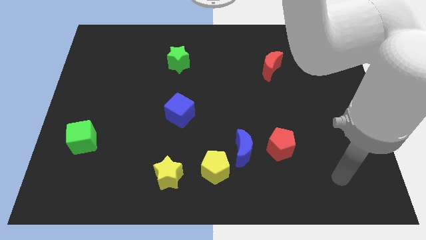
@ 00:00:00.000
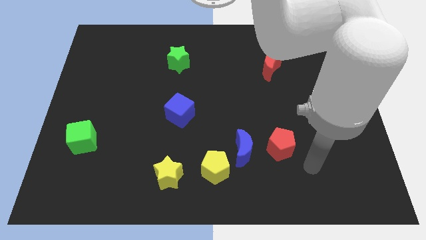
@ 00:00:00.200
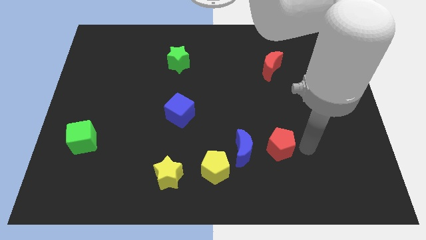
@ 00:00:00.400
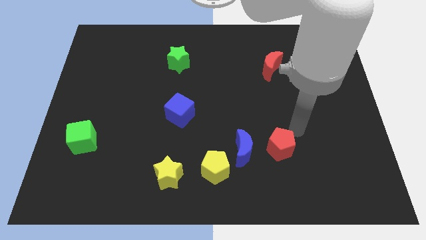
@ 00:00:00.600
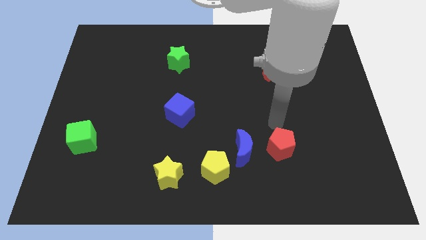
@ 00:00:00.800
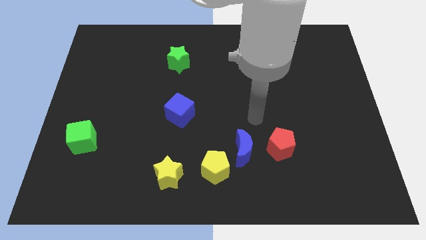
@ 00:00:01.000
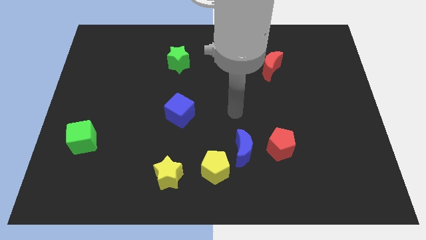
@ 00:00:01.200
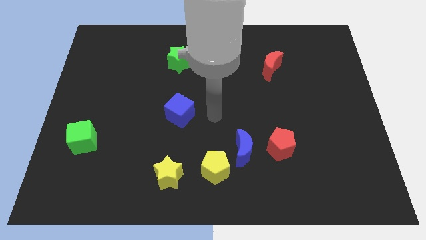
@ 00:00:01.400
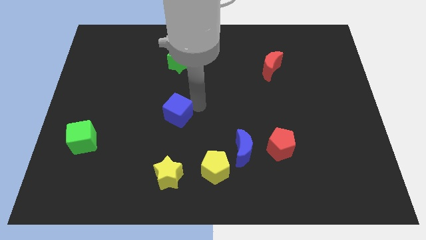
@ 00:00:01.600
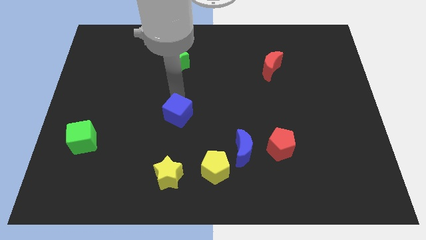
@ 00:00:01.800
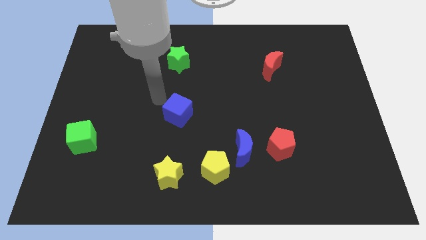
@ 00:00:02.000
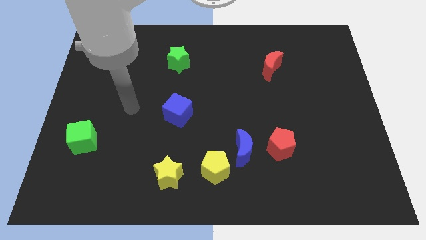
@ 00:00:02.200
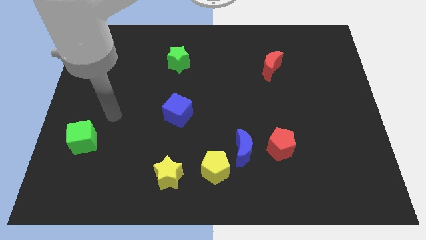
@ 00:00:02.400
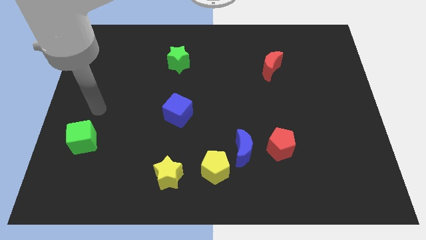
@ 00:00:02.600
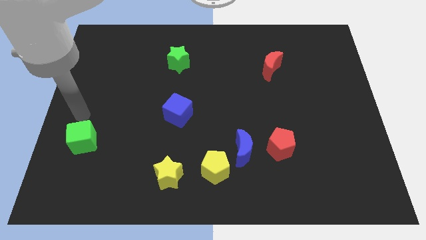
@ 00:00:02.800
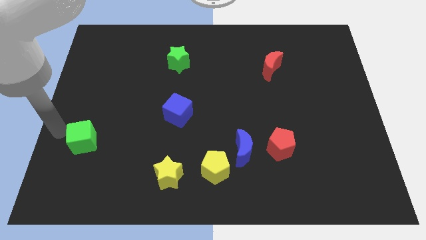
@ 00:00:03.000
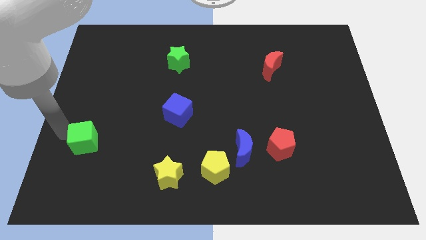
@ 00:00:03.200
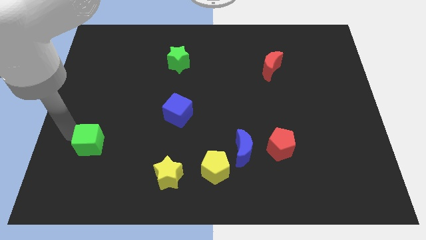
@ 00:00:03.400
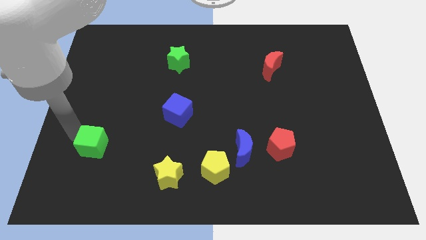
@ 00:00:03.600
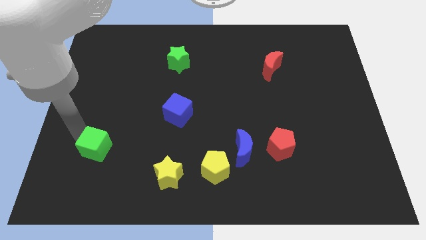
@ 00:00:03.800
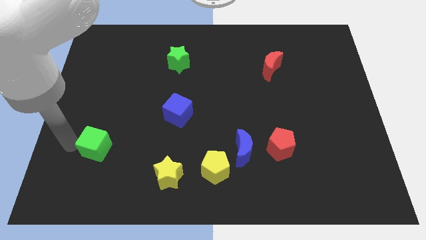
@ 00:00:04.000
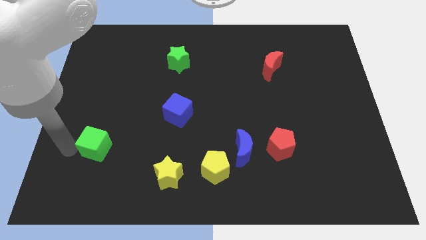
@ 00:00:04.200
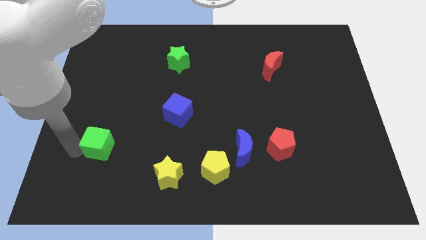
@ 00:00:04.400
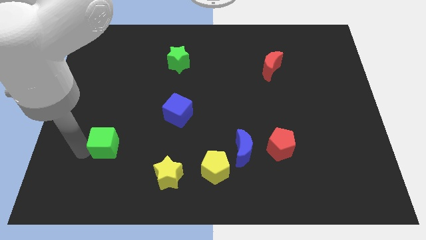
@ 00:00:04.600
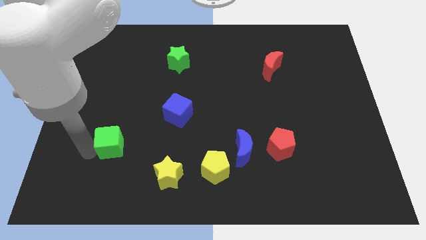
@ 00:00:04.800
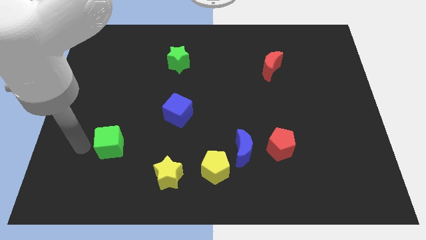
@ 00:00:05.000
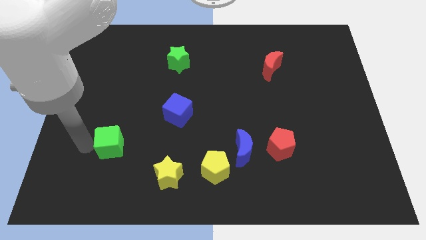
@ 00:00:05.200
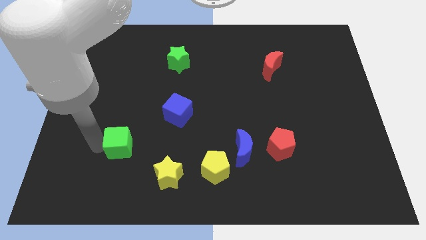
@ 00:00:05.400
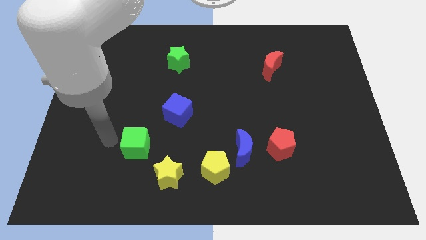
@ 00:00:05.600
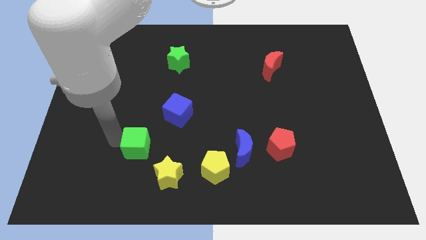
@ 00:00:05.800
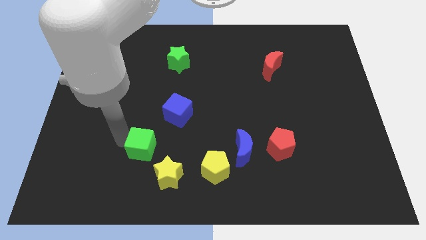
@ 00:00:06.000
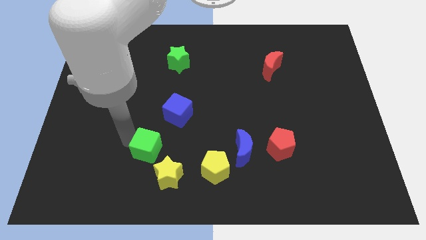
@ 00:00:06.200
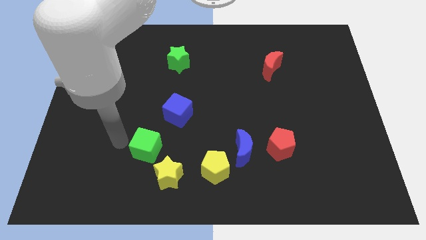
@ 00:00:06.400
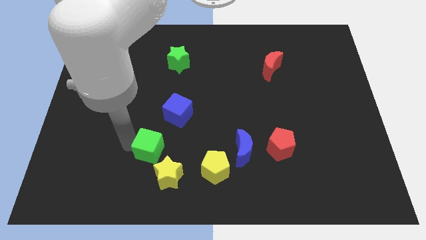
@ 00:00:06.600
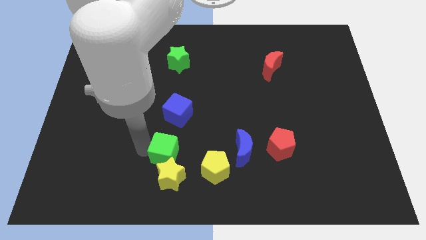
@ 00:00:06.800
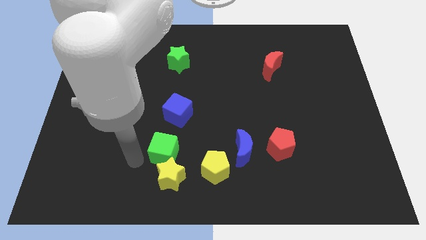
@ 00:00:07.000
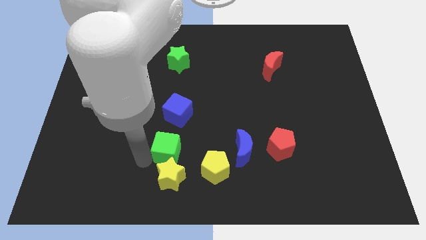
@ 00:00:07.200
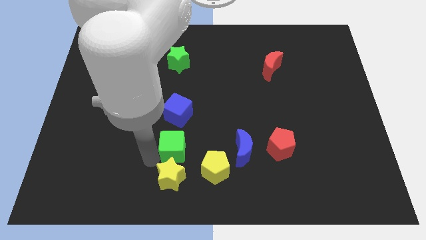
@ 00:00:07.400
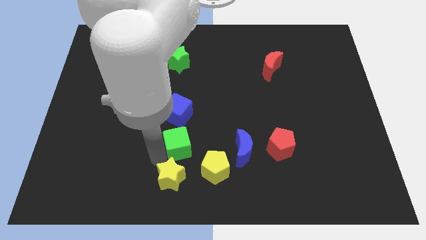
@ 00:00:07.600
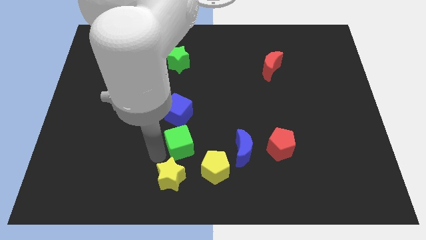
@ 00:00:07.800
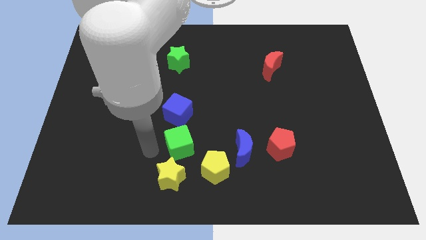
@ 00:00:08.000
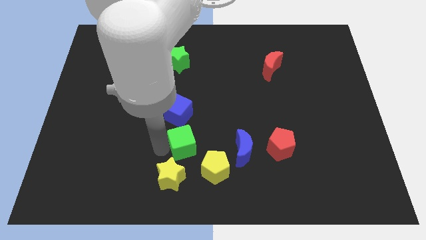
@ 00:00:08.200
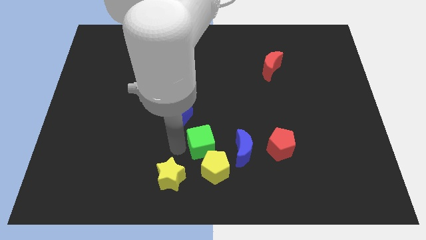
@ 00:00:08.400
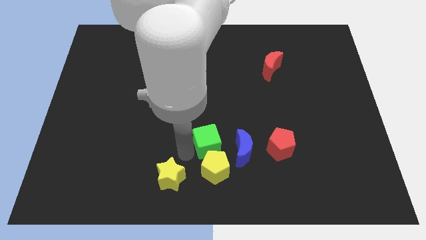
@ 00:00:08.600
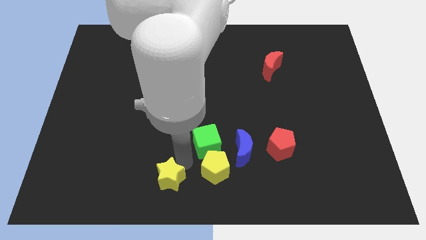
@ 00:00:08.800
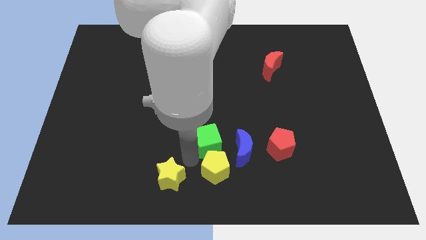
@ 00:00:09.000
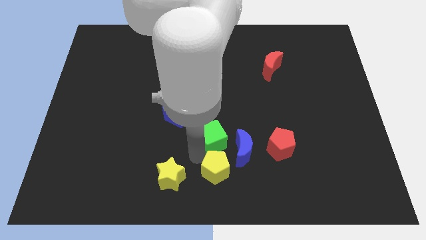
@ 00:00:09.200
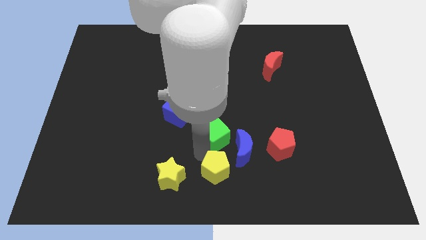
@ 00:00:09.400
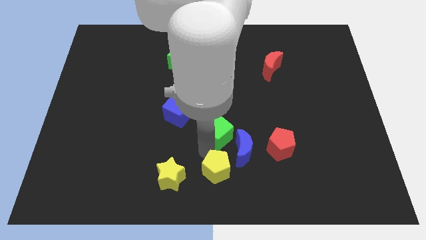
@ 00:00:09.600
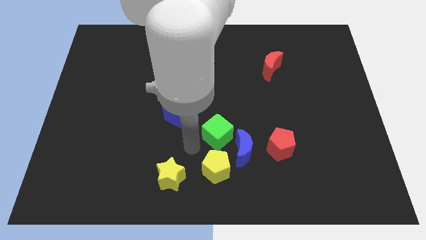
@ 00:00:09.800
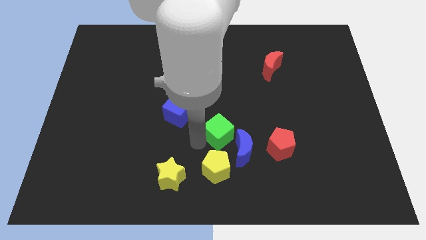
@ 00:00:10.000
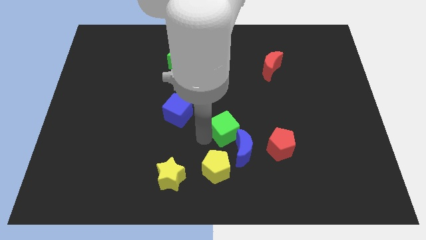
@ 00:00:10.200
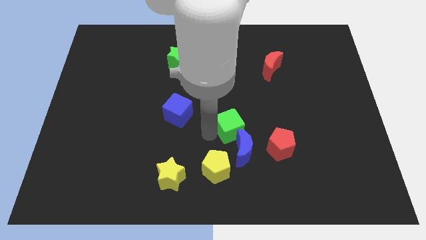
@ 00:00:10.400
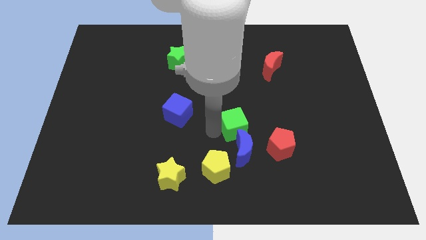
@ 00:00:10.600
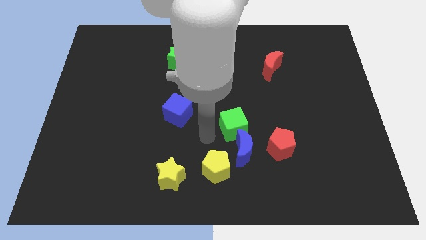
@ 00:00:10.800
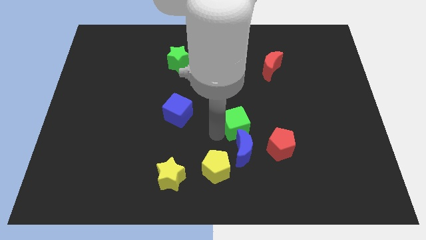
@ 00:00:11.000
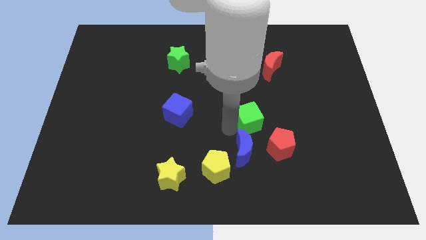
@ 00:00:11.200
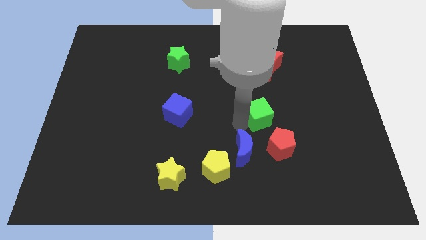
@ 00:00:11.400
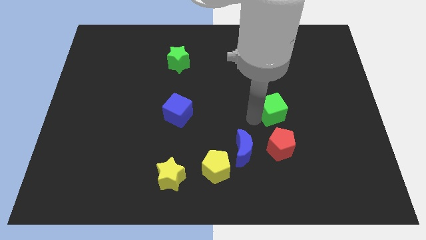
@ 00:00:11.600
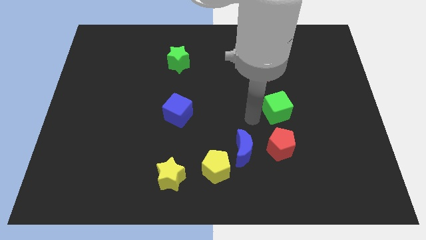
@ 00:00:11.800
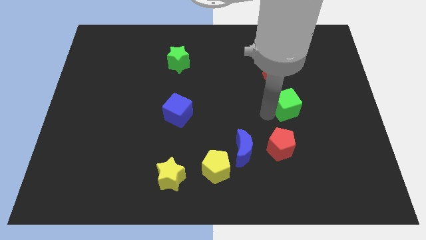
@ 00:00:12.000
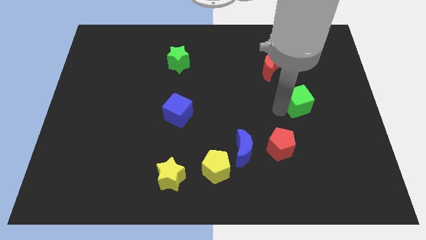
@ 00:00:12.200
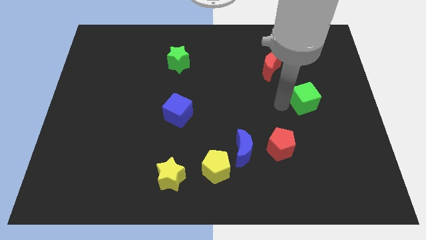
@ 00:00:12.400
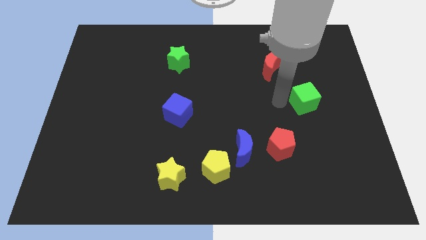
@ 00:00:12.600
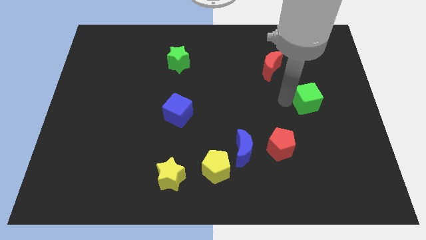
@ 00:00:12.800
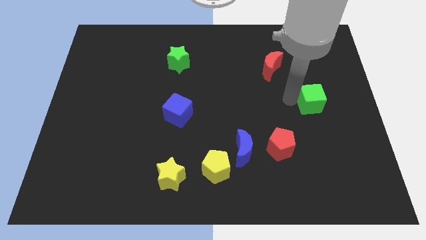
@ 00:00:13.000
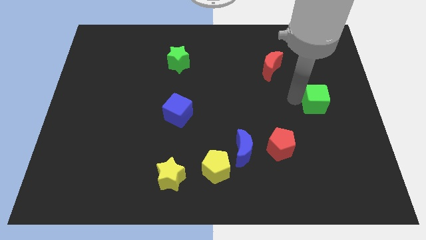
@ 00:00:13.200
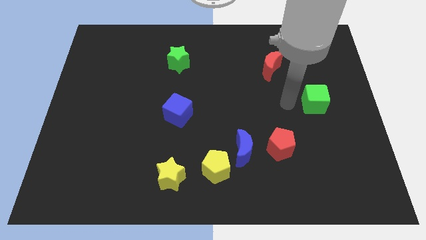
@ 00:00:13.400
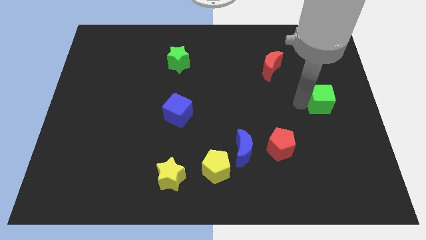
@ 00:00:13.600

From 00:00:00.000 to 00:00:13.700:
put the green cube to the right side of the board
